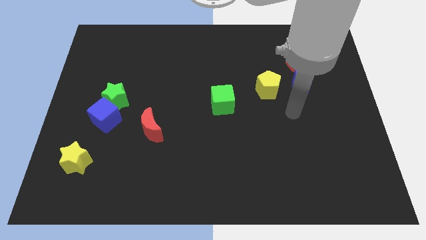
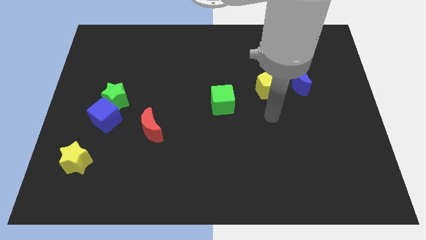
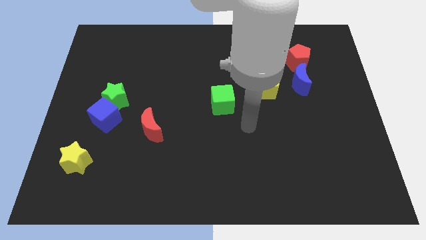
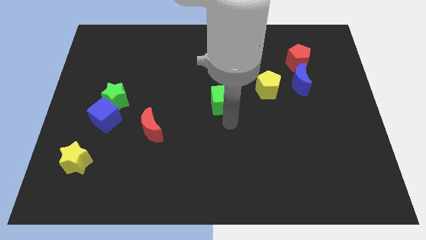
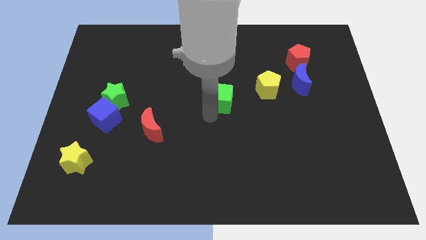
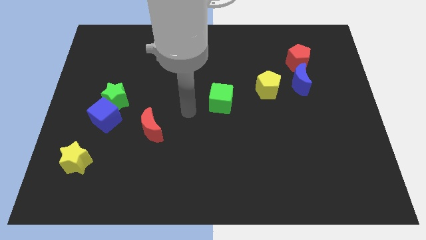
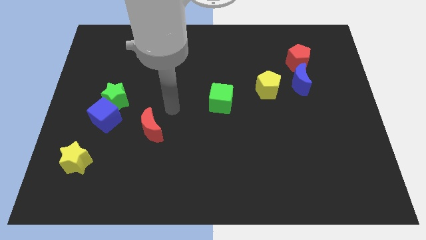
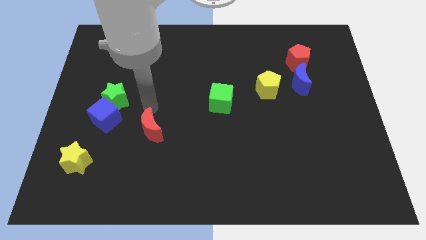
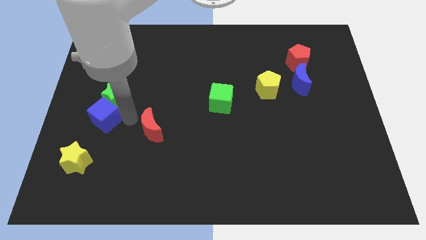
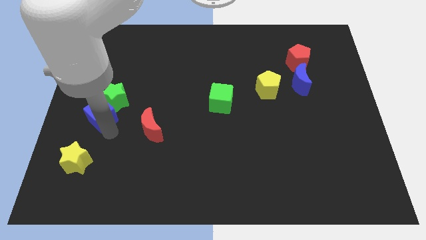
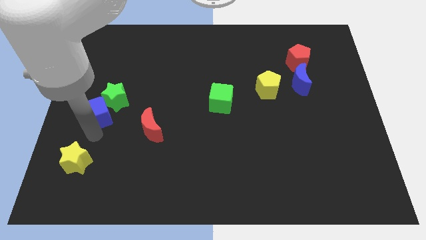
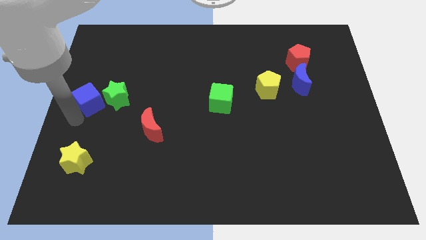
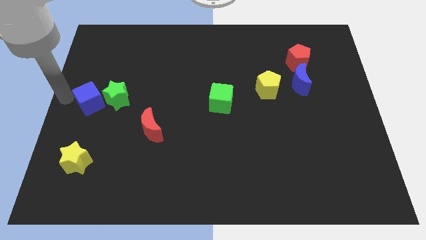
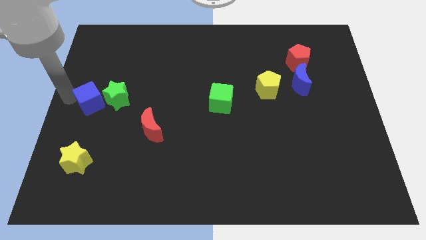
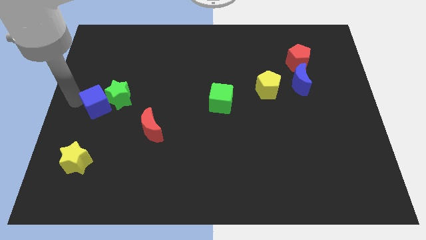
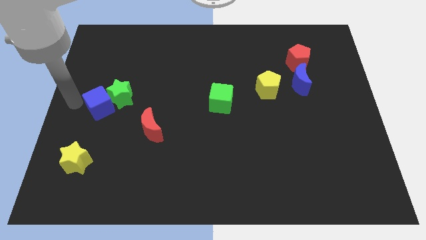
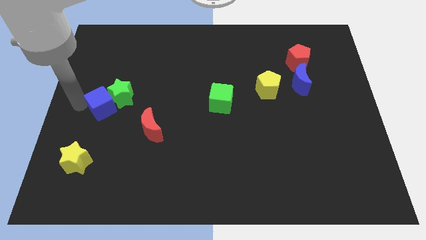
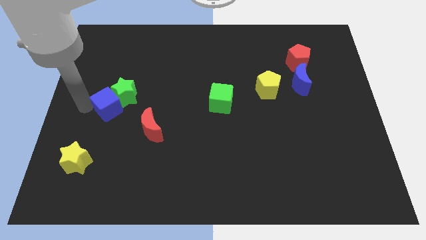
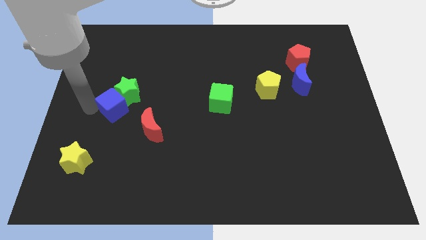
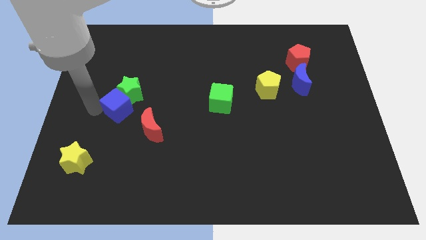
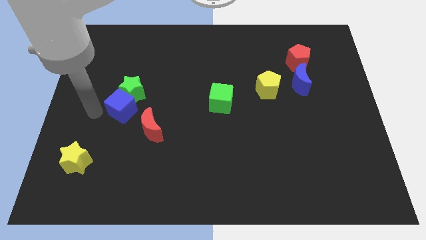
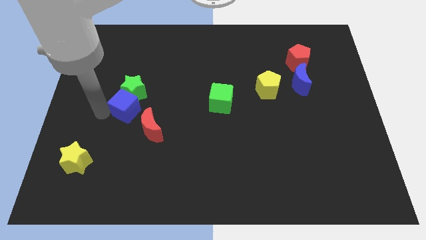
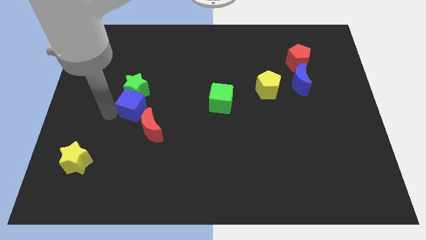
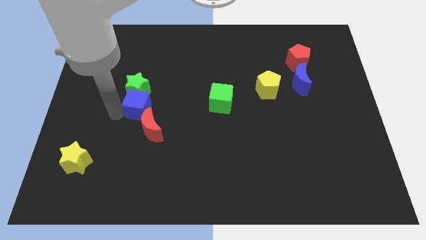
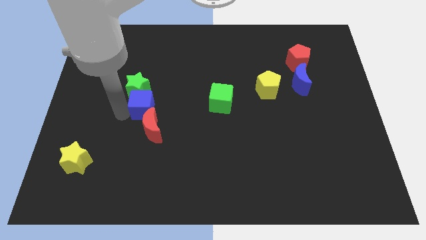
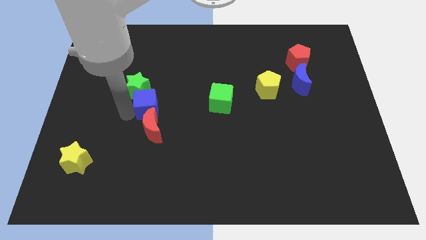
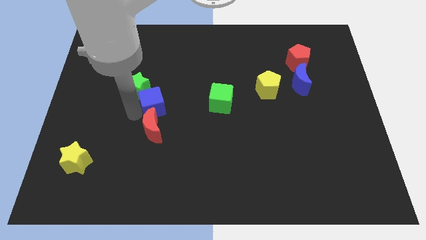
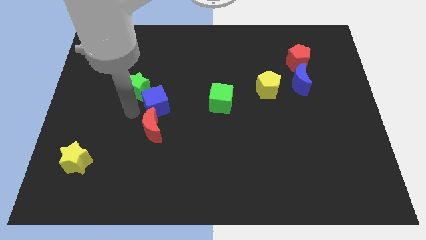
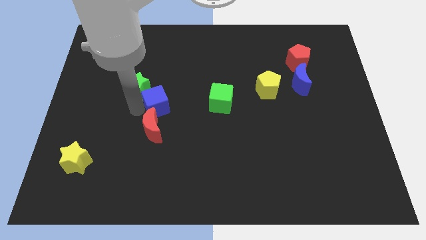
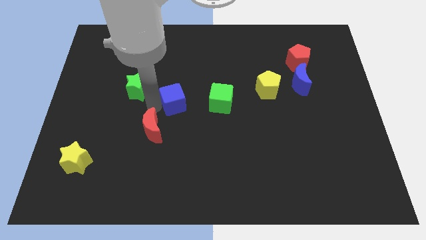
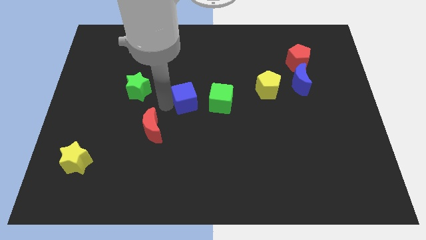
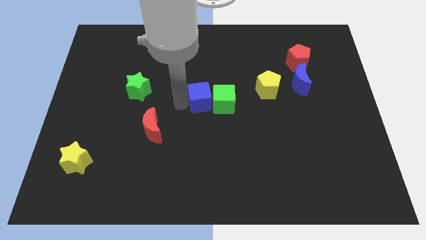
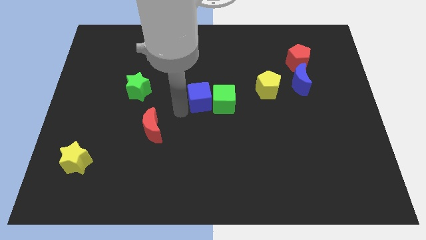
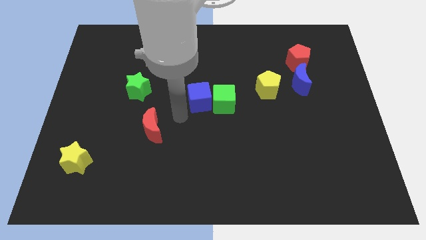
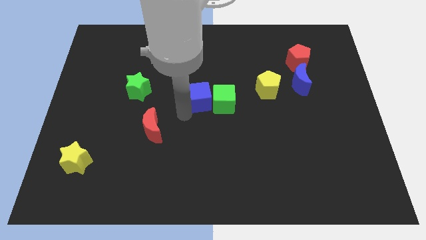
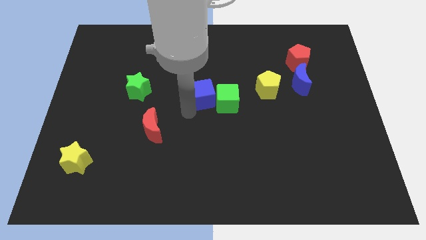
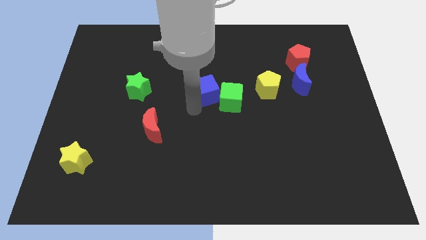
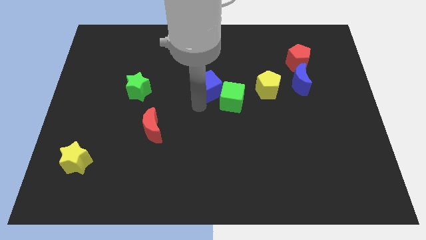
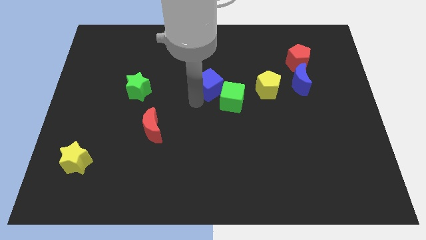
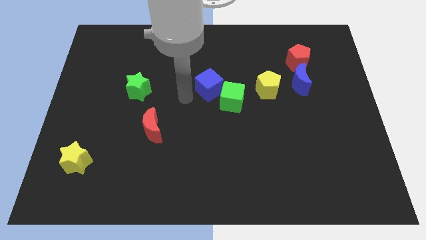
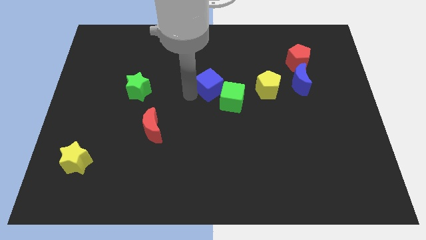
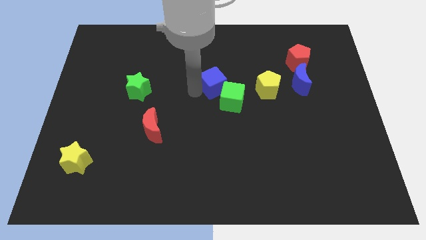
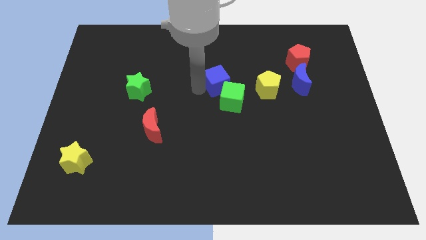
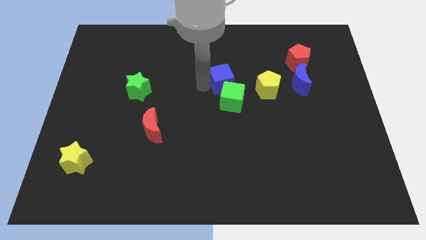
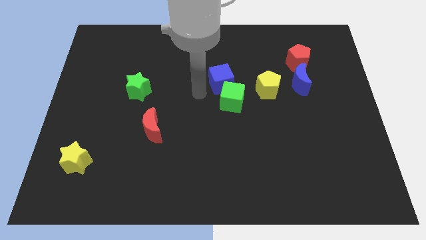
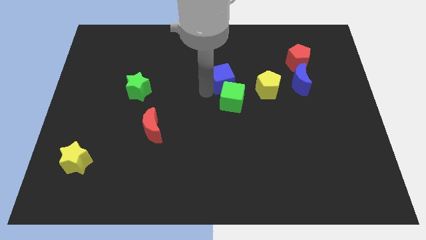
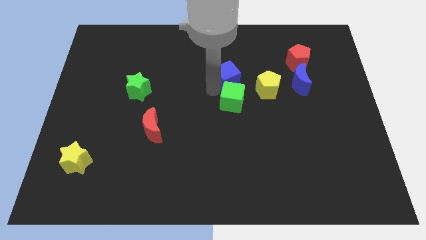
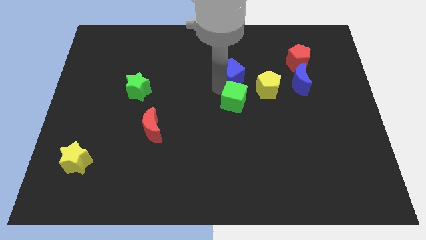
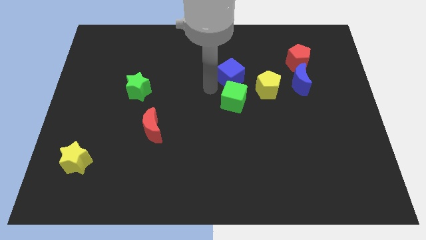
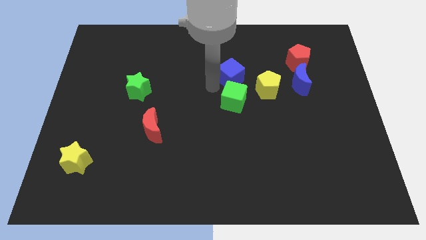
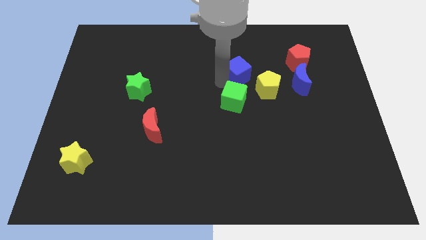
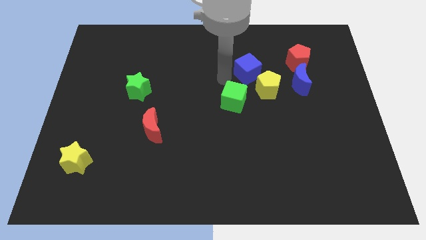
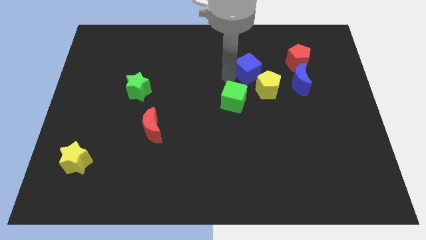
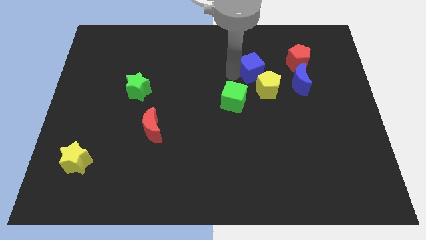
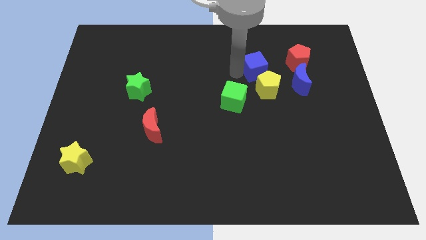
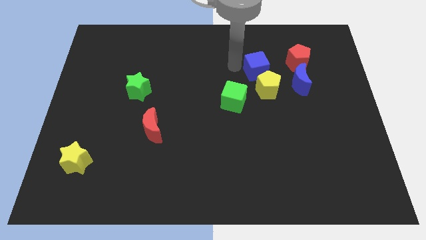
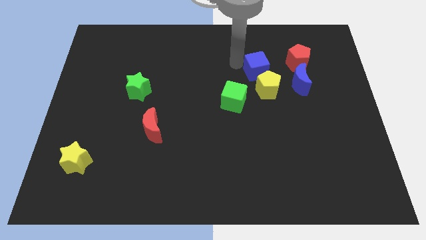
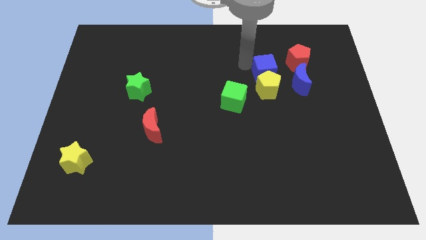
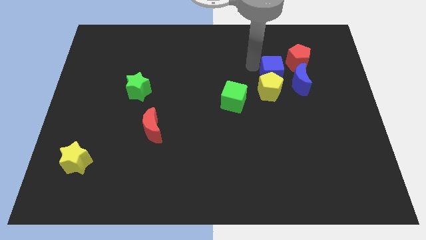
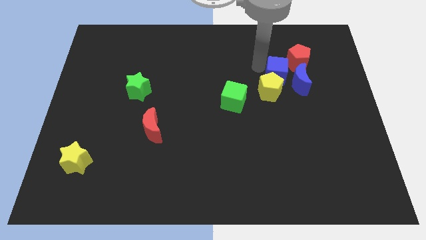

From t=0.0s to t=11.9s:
slide the blue cube close to the blue moon

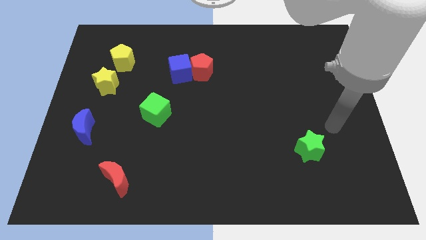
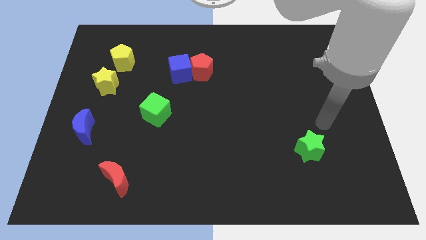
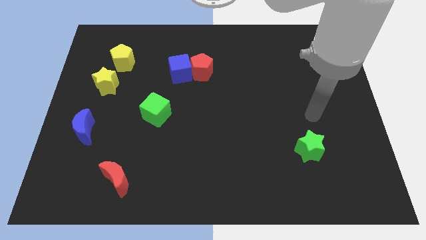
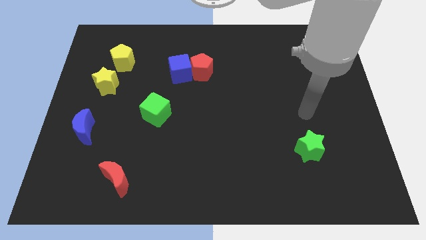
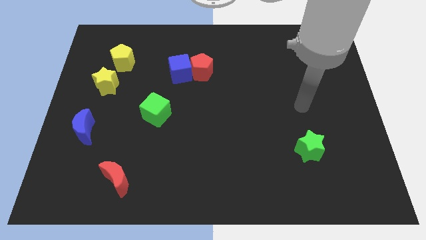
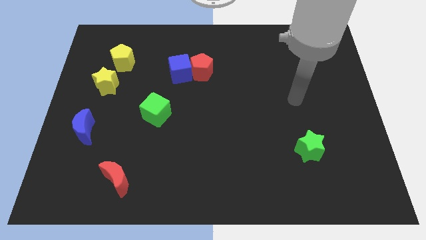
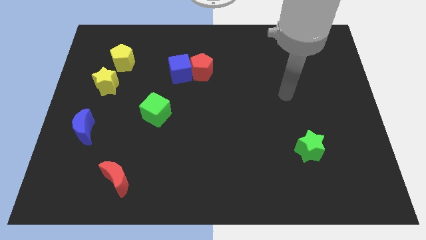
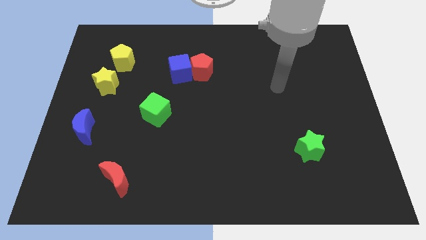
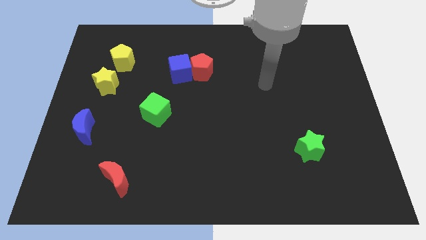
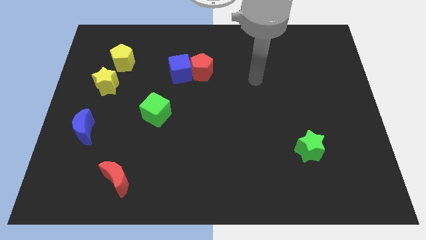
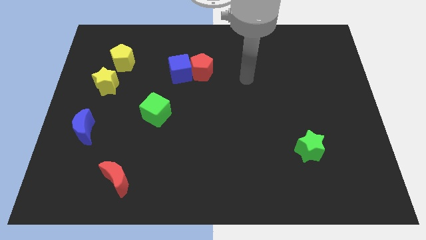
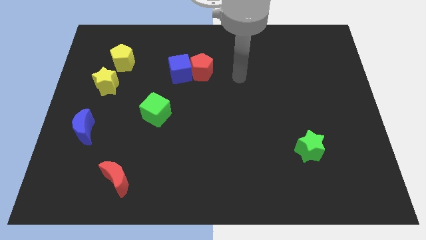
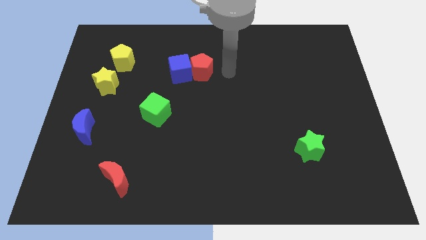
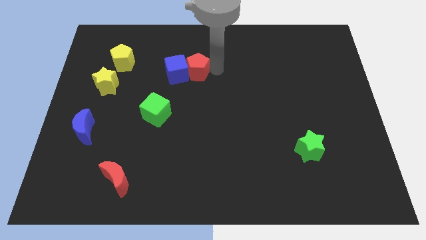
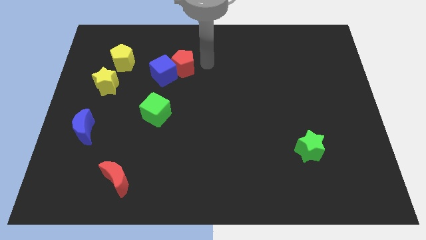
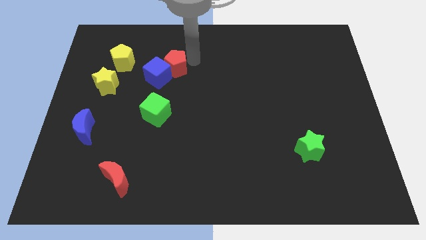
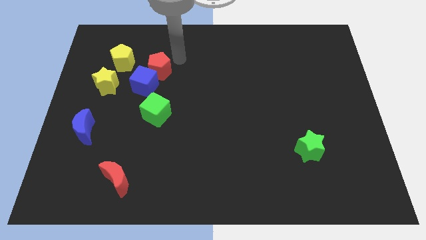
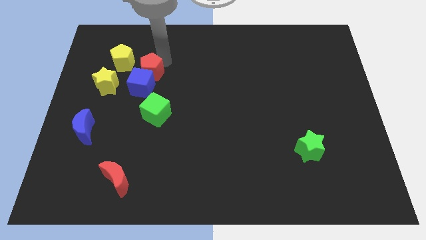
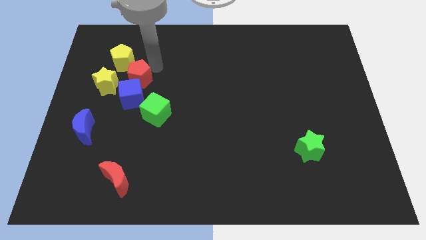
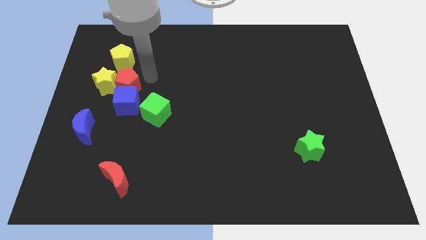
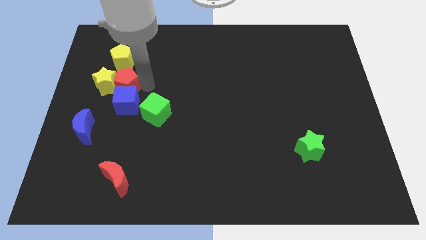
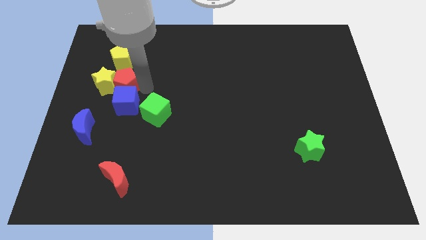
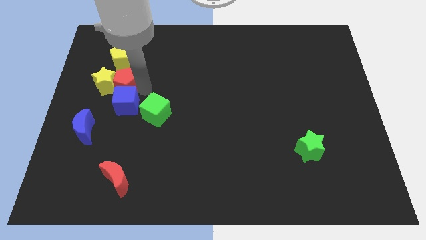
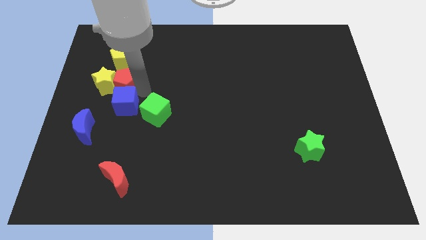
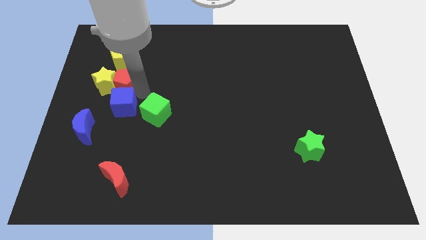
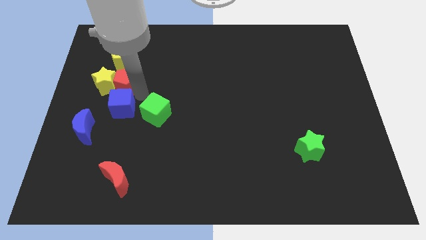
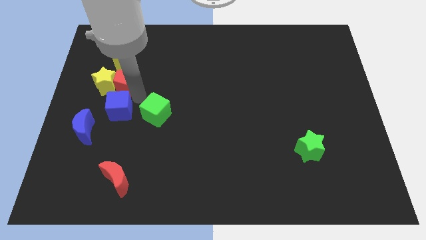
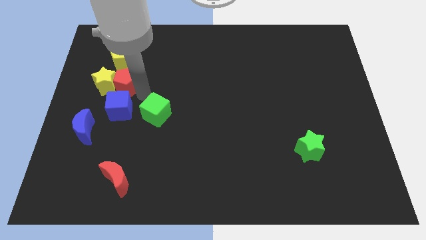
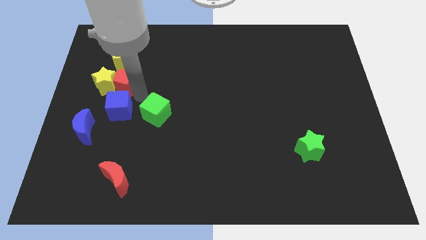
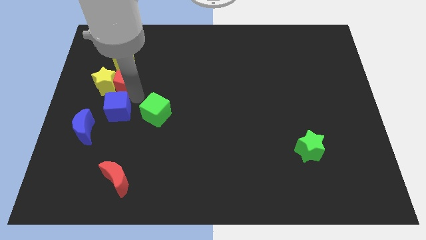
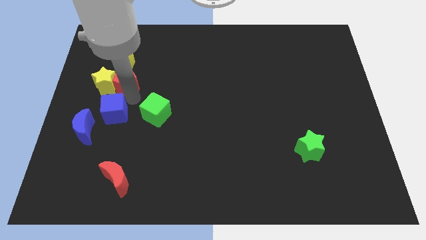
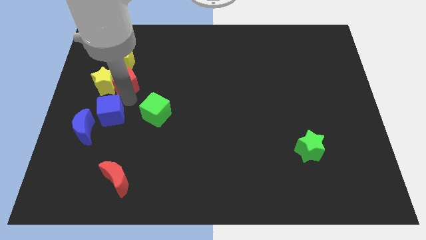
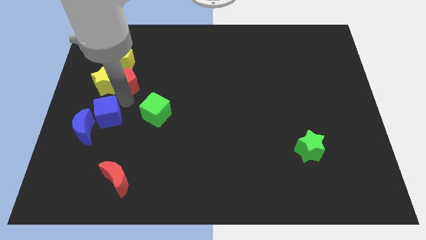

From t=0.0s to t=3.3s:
move the blue cube towards the blue moon
